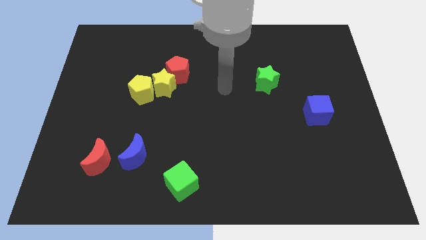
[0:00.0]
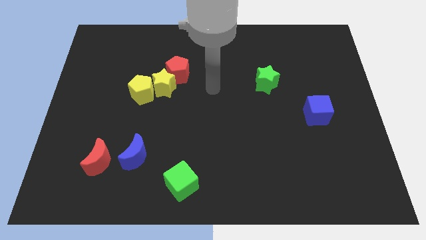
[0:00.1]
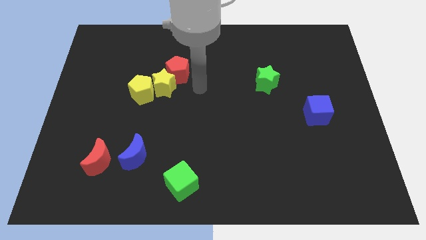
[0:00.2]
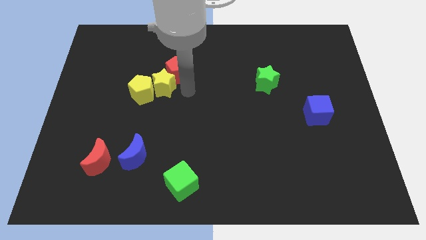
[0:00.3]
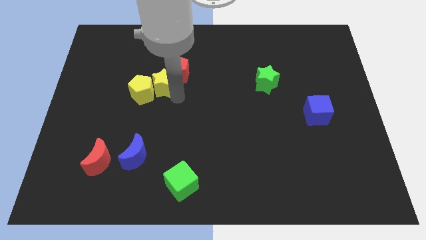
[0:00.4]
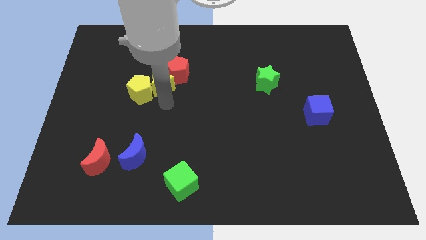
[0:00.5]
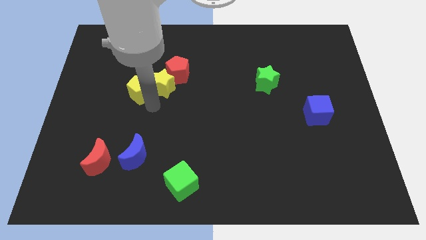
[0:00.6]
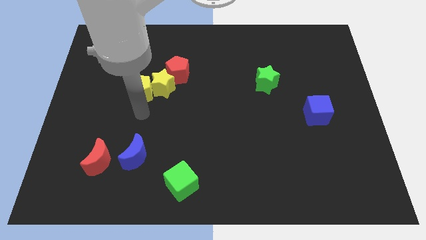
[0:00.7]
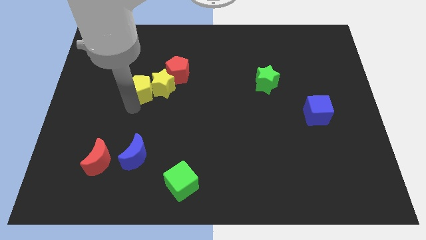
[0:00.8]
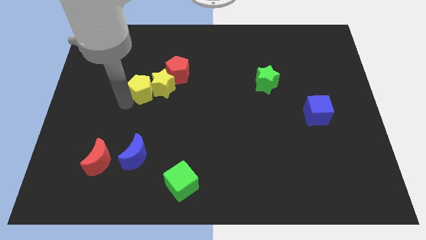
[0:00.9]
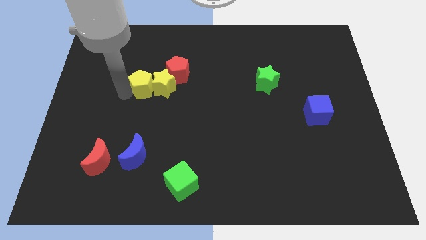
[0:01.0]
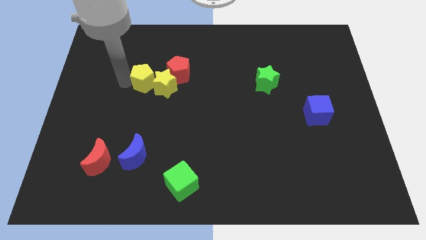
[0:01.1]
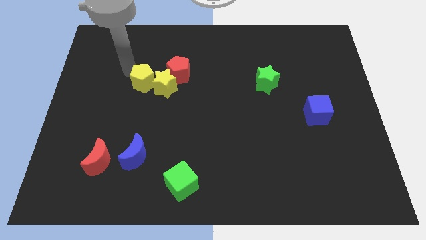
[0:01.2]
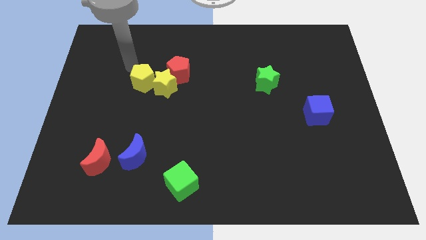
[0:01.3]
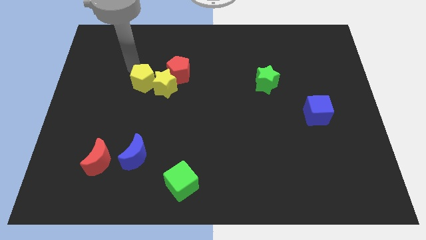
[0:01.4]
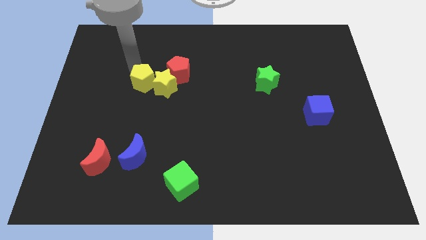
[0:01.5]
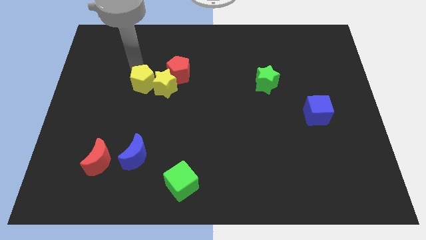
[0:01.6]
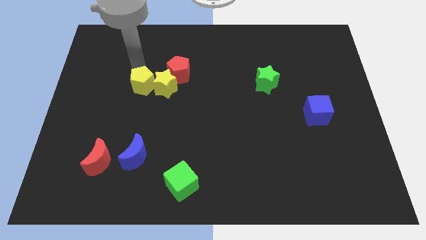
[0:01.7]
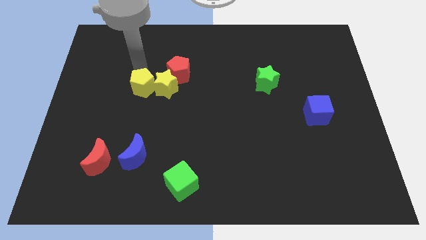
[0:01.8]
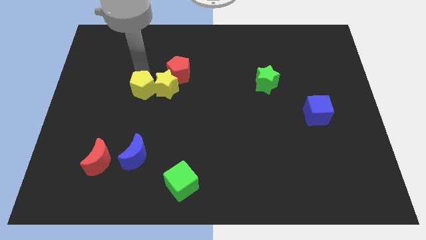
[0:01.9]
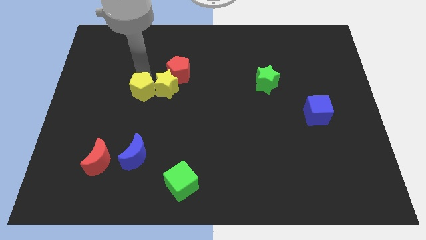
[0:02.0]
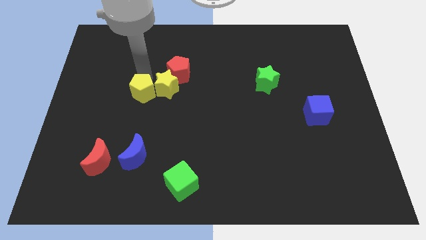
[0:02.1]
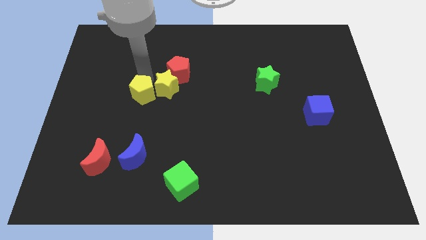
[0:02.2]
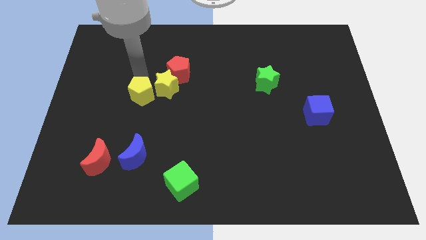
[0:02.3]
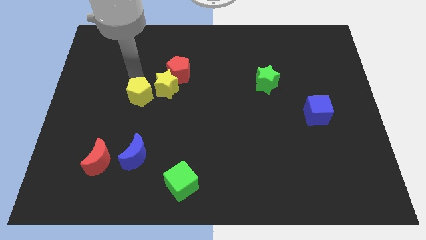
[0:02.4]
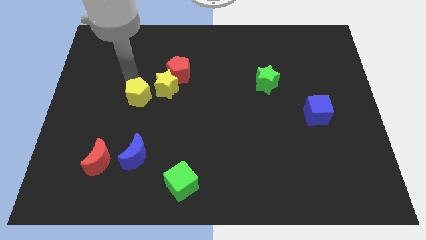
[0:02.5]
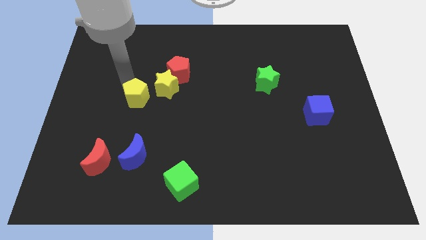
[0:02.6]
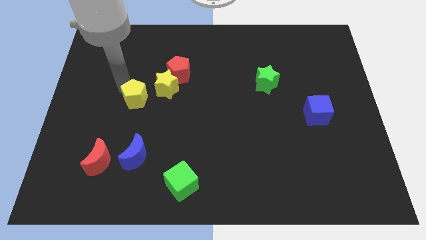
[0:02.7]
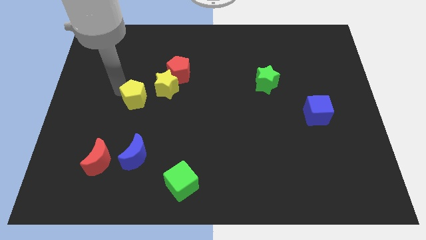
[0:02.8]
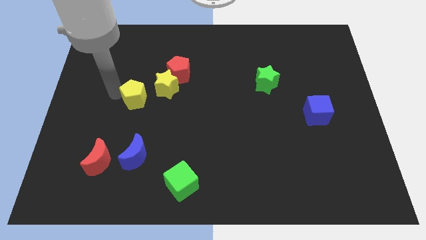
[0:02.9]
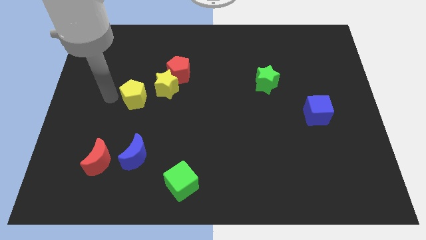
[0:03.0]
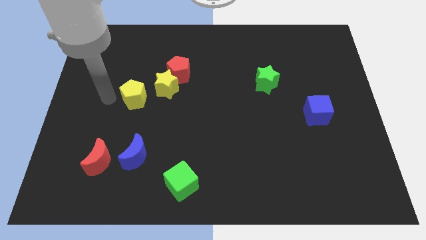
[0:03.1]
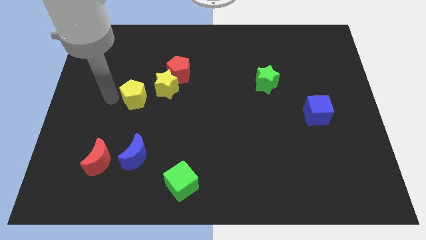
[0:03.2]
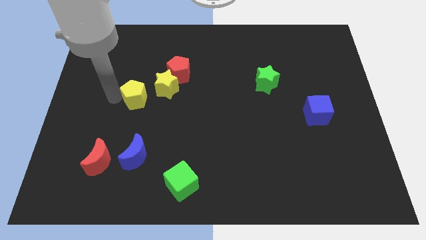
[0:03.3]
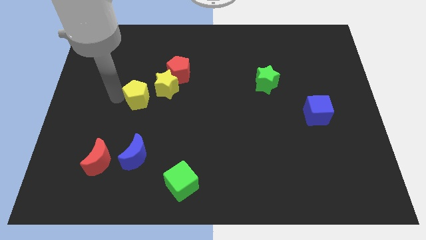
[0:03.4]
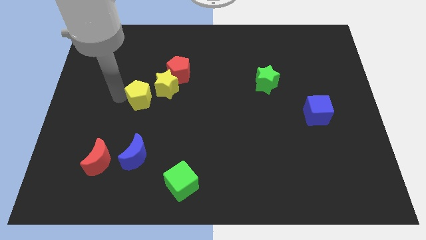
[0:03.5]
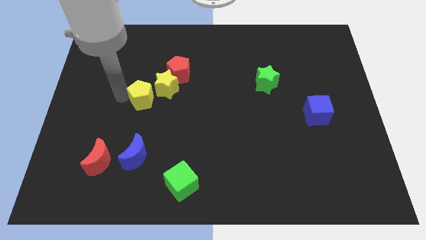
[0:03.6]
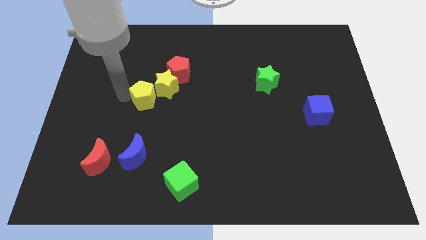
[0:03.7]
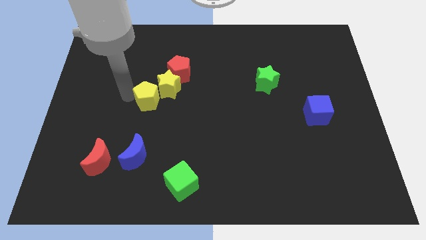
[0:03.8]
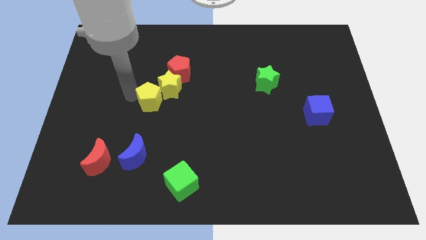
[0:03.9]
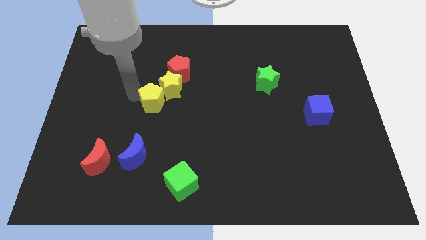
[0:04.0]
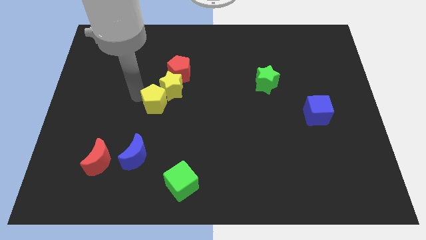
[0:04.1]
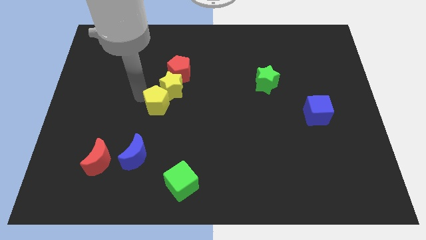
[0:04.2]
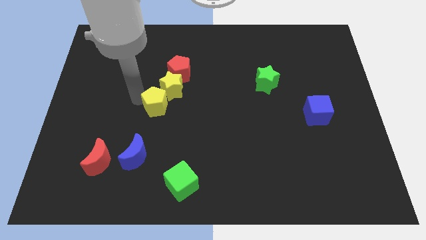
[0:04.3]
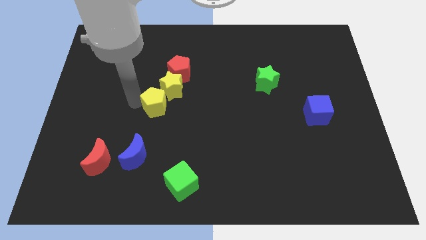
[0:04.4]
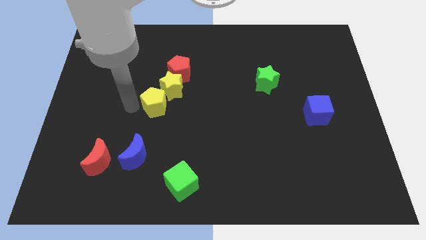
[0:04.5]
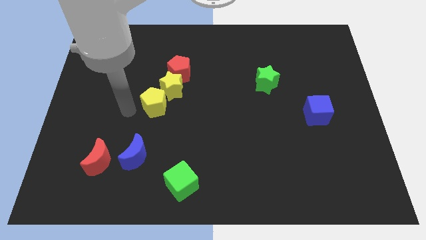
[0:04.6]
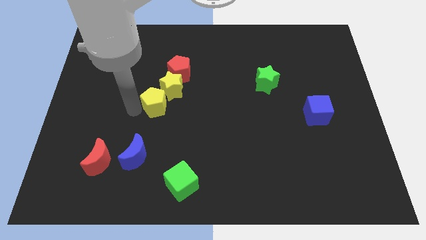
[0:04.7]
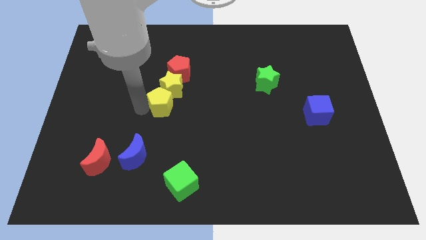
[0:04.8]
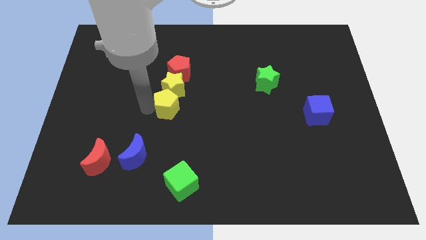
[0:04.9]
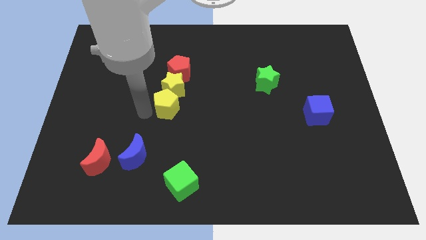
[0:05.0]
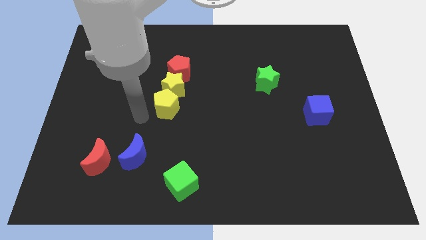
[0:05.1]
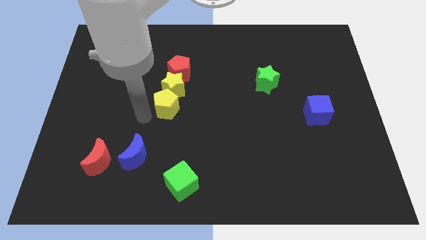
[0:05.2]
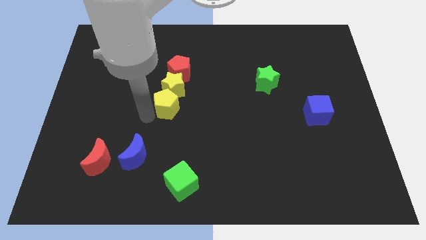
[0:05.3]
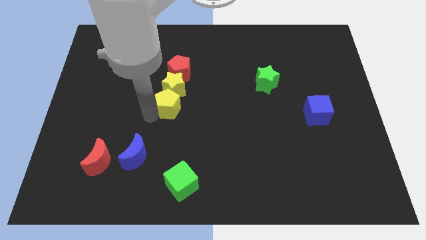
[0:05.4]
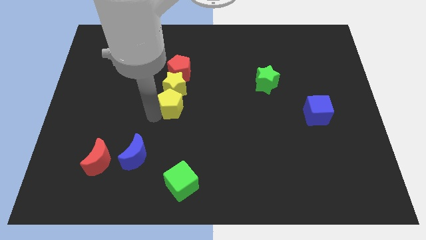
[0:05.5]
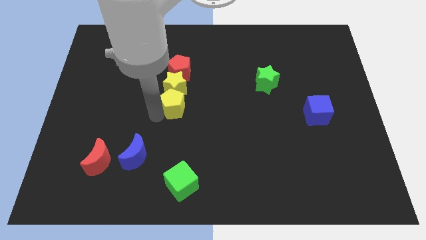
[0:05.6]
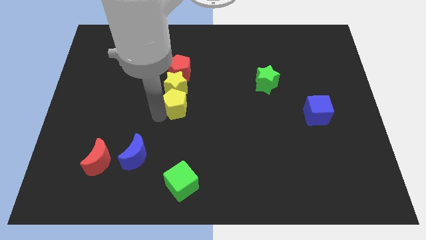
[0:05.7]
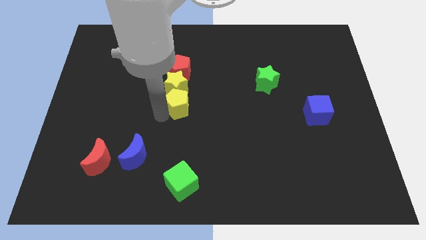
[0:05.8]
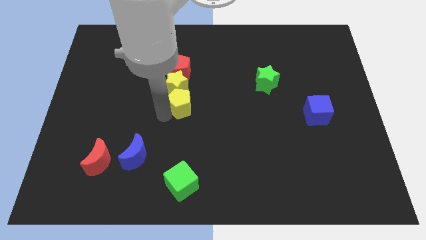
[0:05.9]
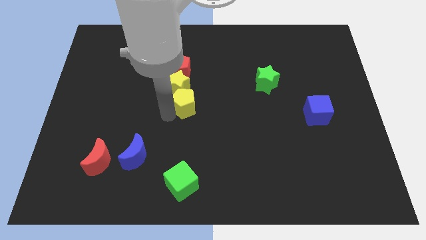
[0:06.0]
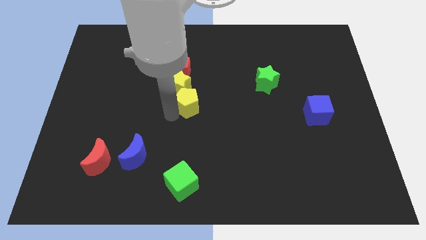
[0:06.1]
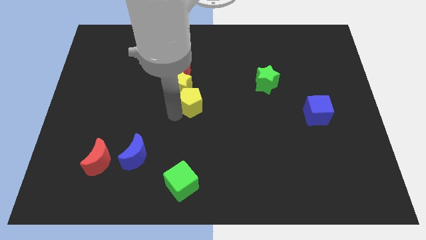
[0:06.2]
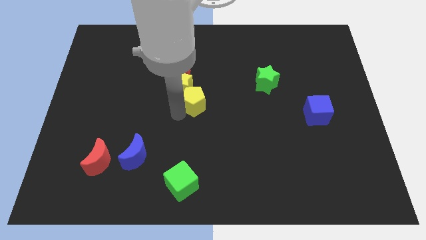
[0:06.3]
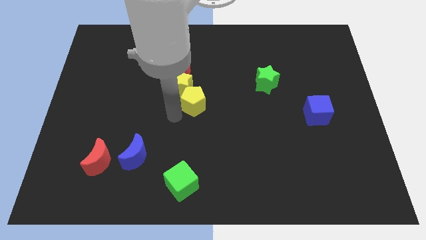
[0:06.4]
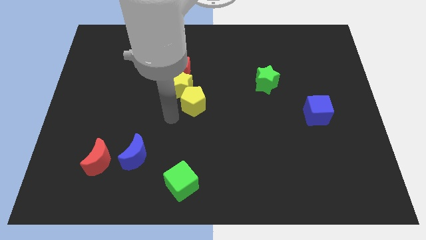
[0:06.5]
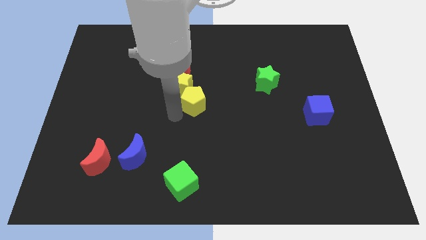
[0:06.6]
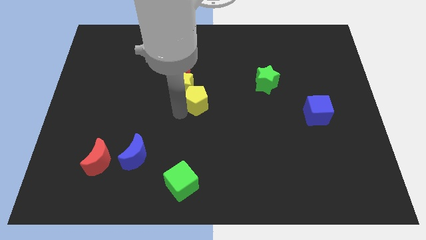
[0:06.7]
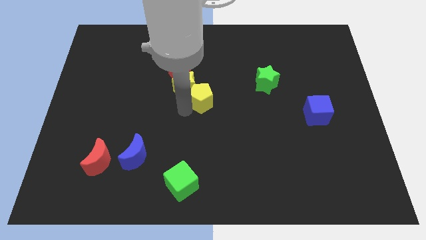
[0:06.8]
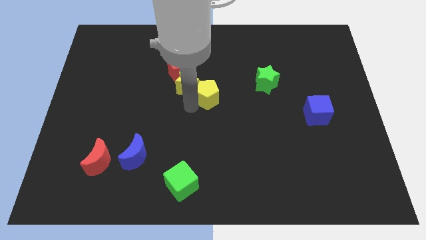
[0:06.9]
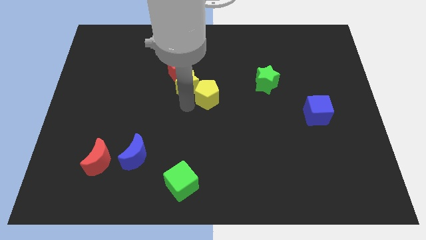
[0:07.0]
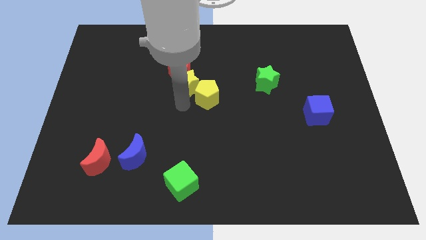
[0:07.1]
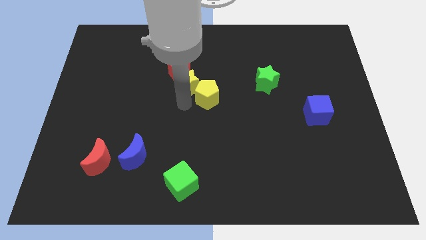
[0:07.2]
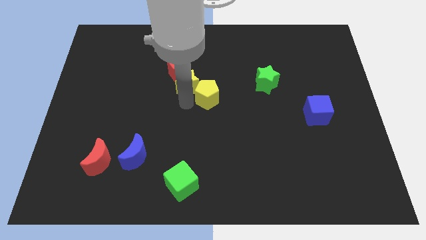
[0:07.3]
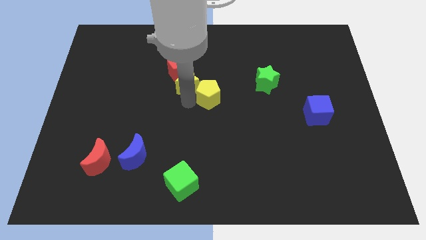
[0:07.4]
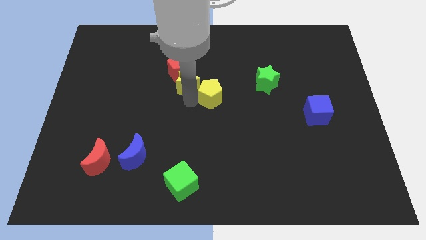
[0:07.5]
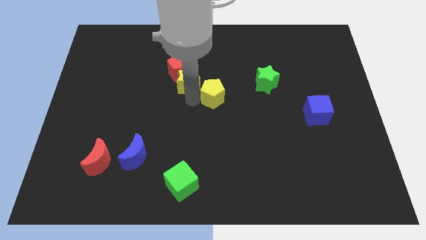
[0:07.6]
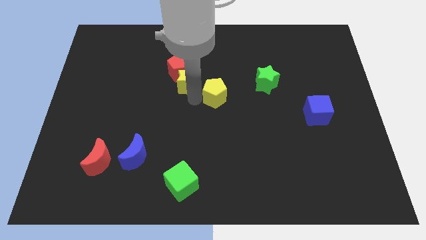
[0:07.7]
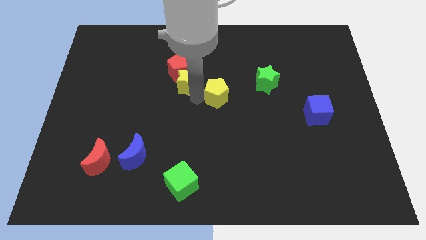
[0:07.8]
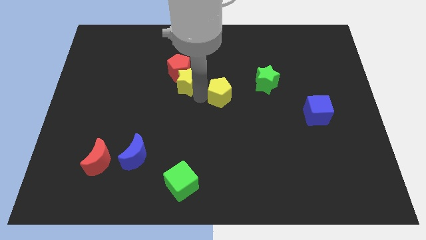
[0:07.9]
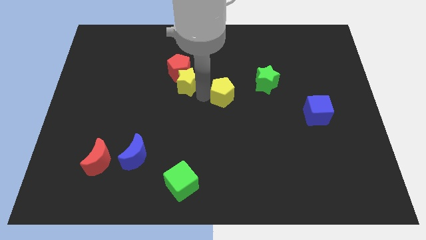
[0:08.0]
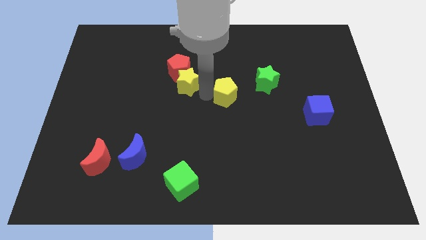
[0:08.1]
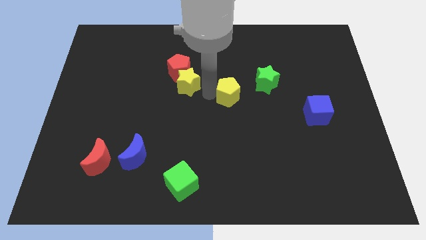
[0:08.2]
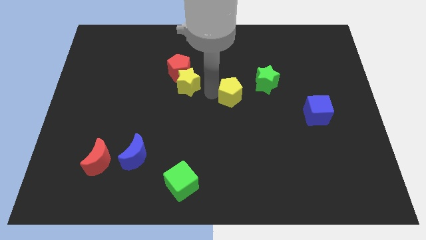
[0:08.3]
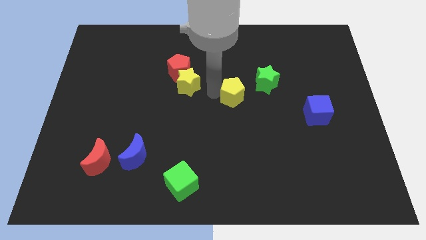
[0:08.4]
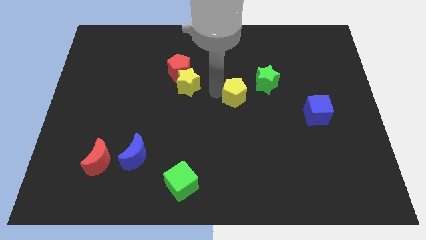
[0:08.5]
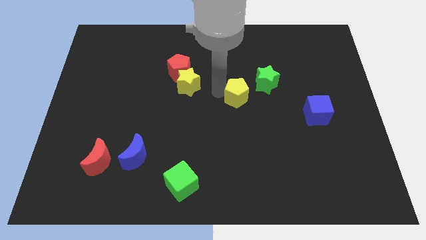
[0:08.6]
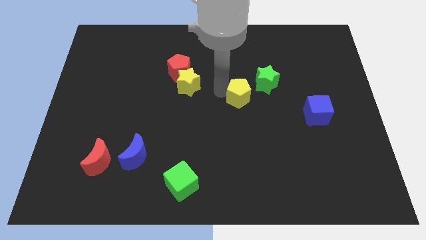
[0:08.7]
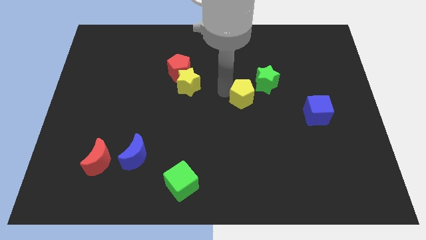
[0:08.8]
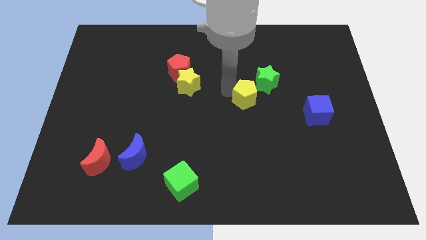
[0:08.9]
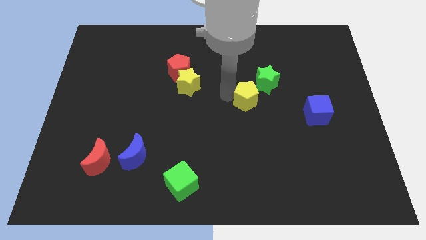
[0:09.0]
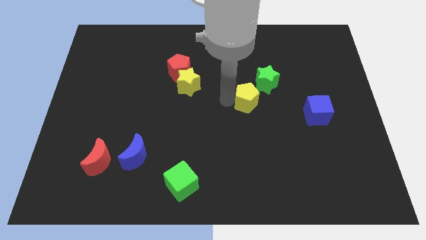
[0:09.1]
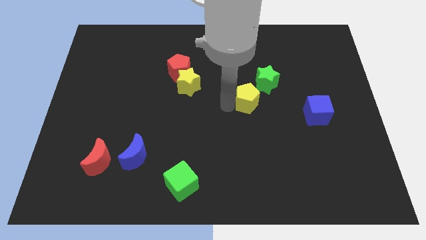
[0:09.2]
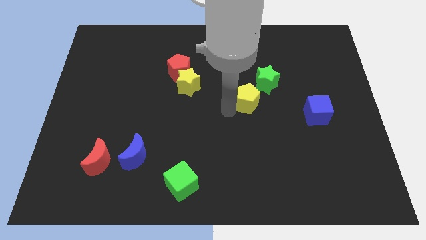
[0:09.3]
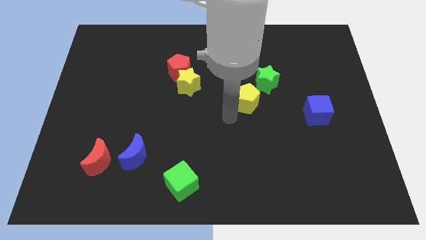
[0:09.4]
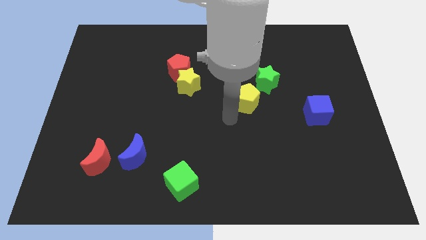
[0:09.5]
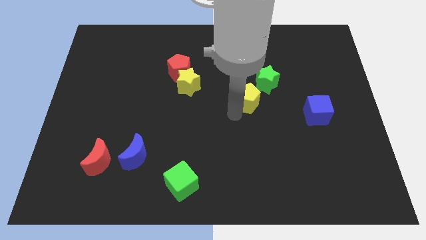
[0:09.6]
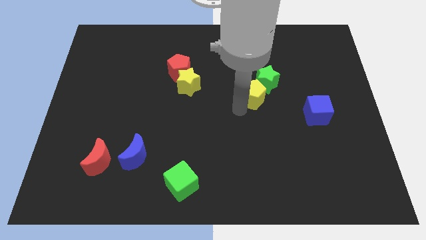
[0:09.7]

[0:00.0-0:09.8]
put the yellow pentagon close to the green star
